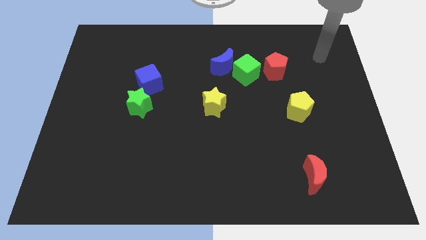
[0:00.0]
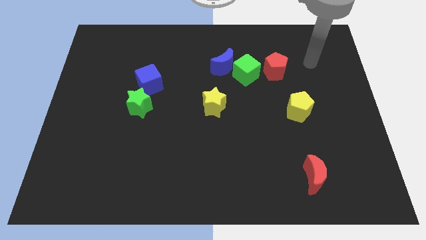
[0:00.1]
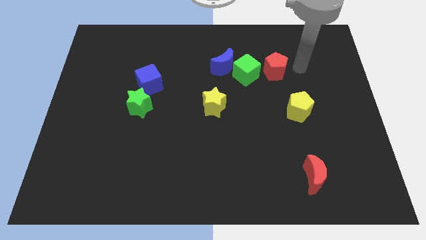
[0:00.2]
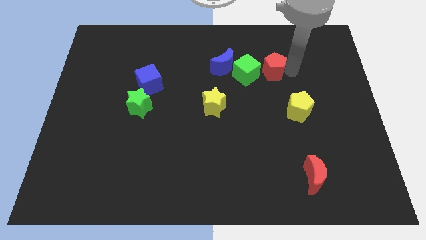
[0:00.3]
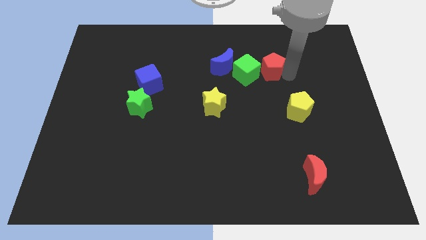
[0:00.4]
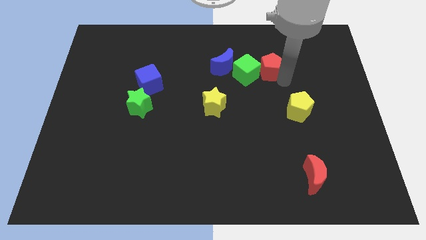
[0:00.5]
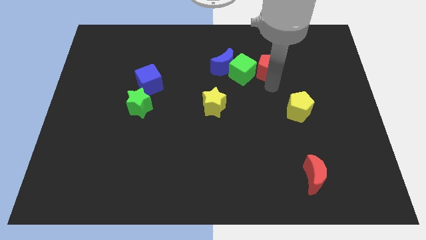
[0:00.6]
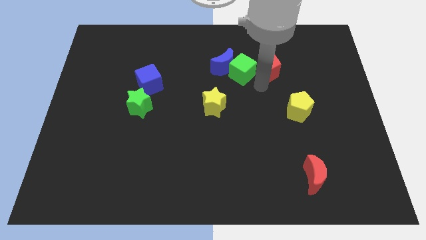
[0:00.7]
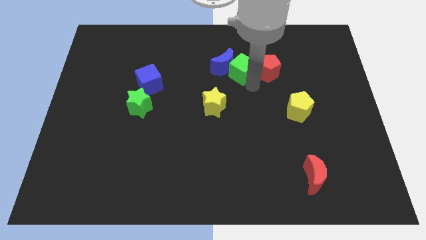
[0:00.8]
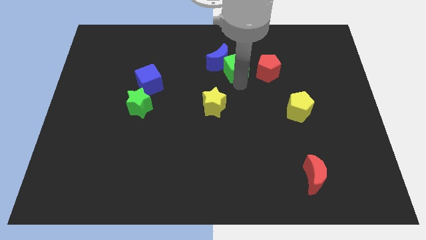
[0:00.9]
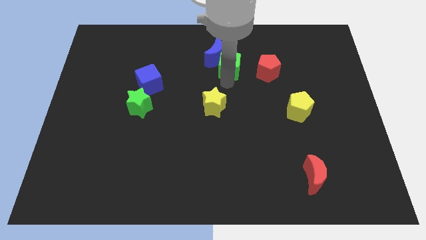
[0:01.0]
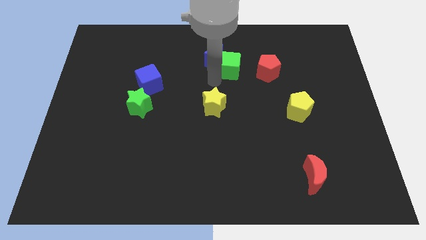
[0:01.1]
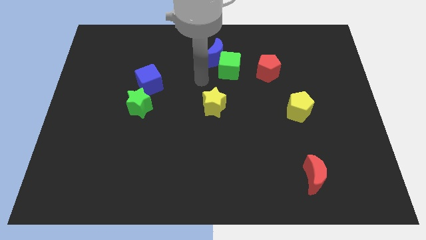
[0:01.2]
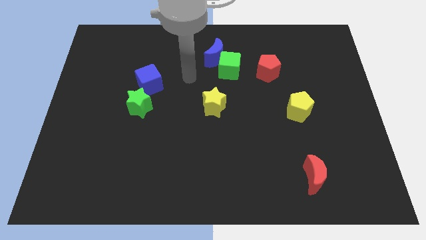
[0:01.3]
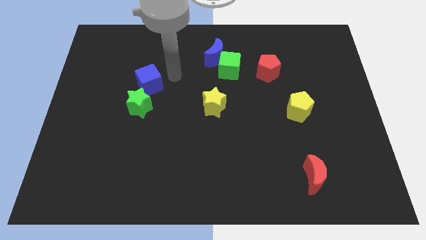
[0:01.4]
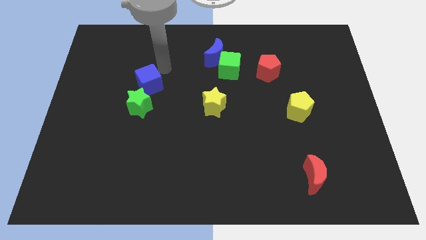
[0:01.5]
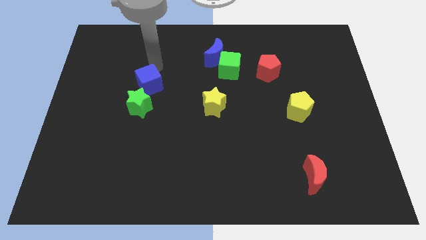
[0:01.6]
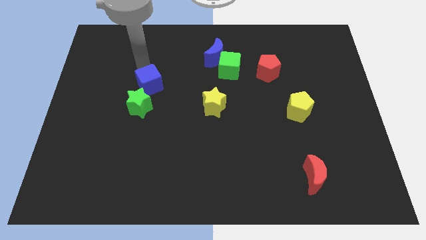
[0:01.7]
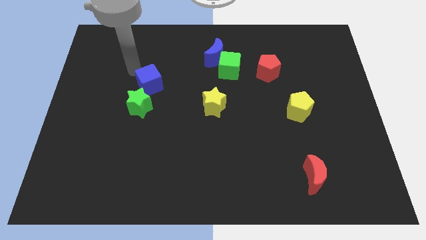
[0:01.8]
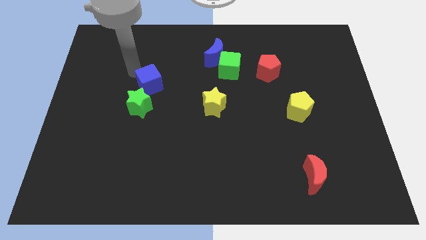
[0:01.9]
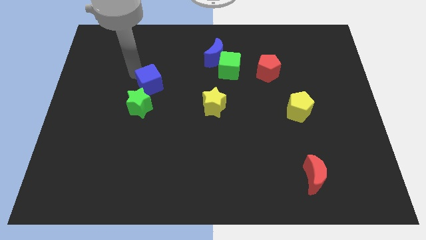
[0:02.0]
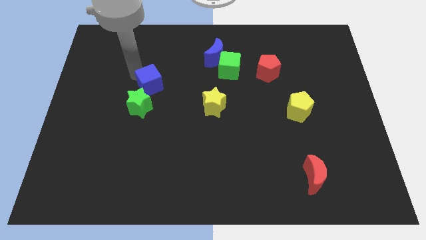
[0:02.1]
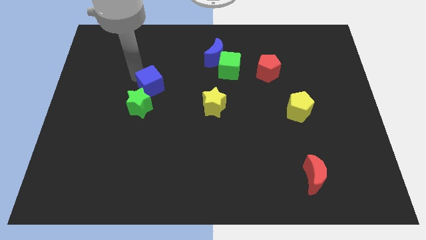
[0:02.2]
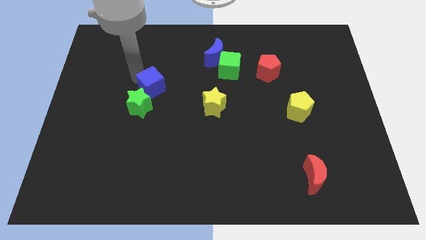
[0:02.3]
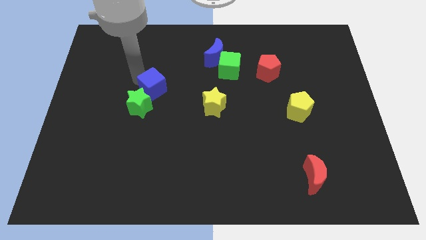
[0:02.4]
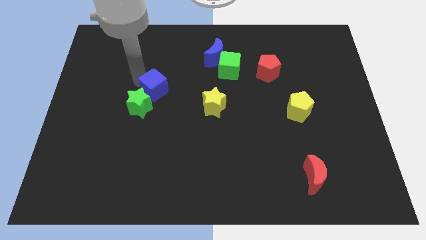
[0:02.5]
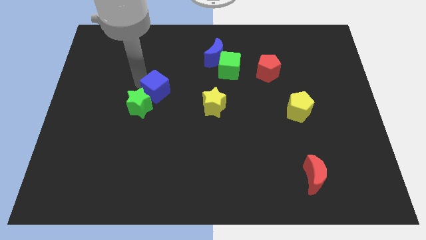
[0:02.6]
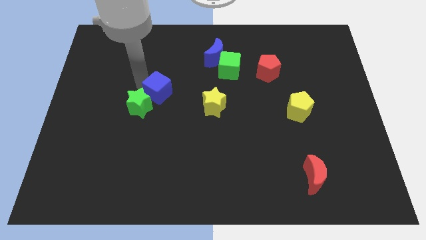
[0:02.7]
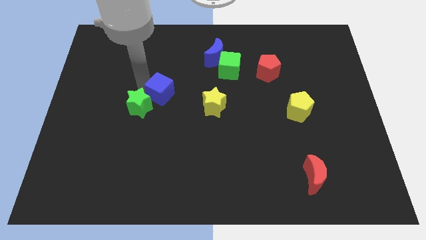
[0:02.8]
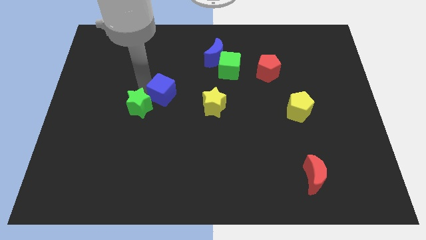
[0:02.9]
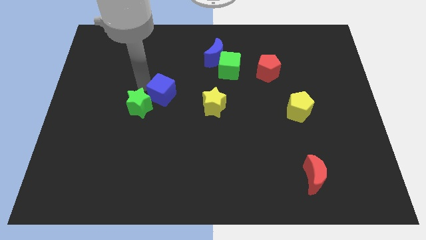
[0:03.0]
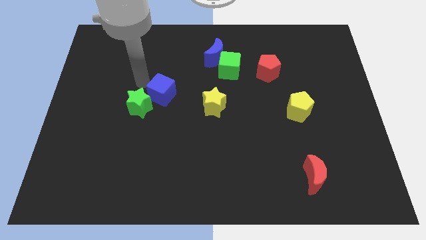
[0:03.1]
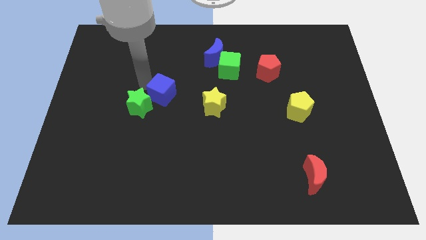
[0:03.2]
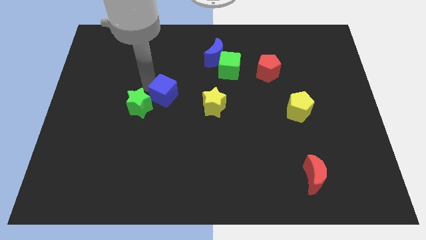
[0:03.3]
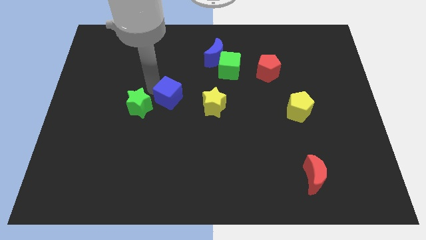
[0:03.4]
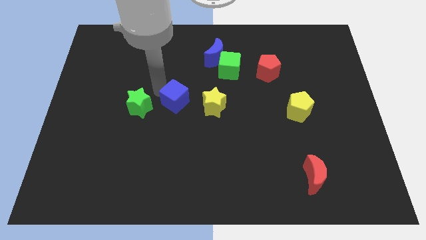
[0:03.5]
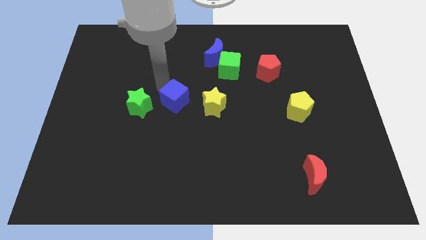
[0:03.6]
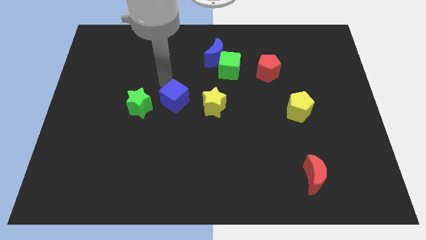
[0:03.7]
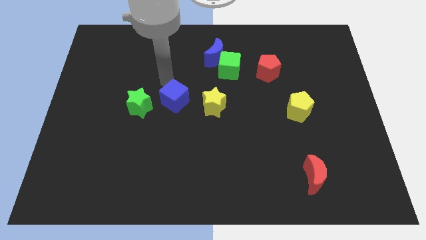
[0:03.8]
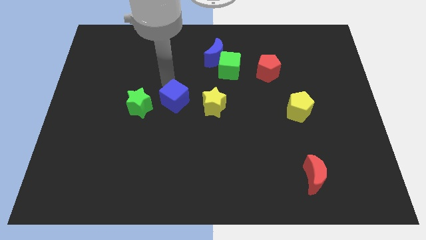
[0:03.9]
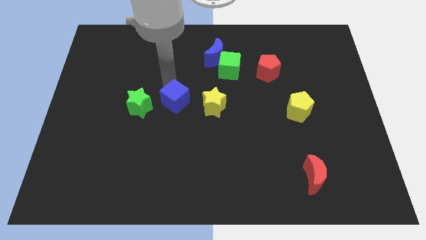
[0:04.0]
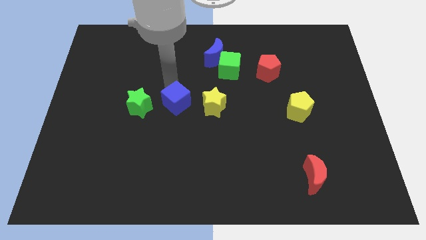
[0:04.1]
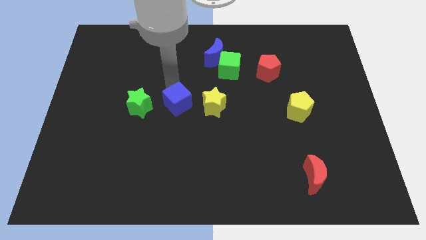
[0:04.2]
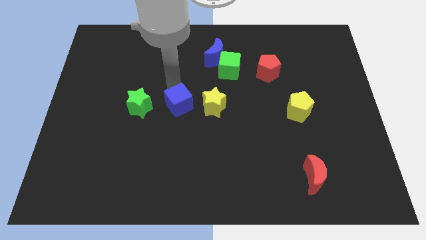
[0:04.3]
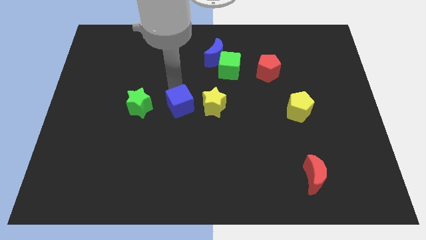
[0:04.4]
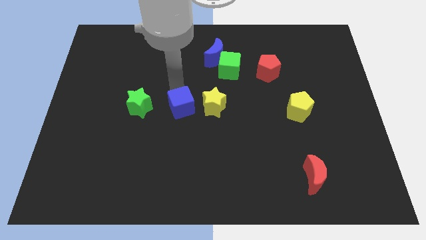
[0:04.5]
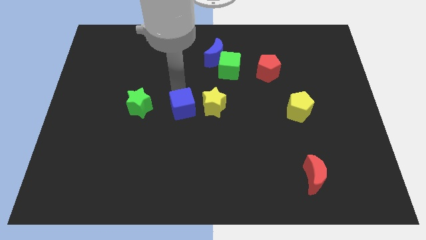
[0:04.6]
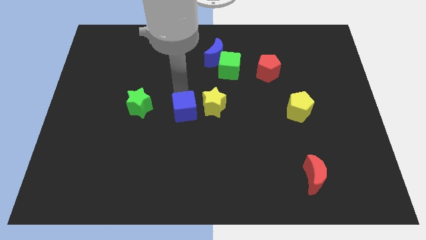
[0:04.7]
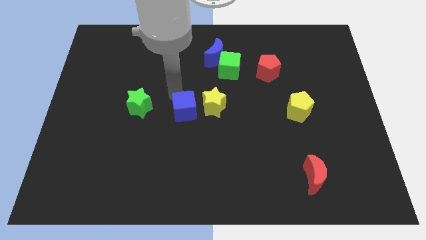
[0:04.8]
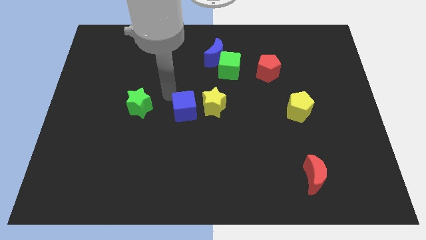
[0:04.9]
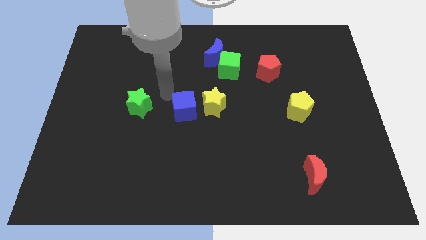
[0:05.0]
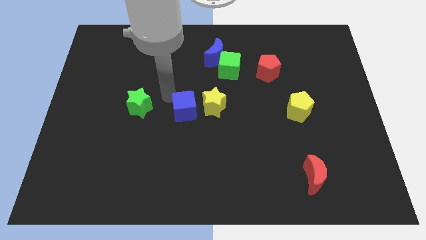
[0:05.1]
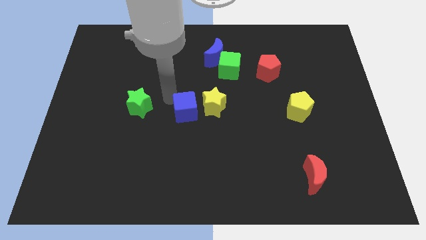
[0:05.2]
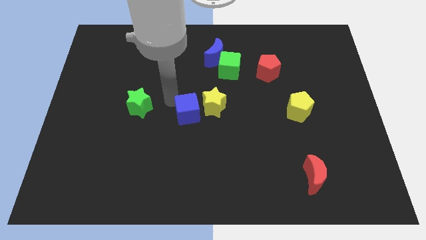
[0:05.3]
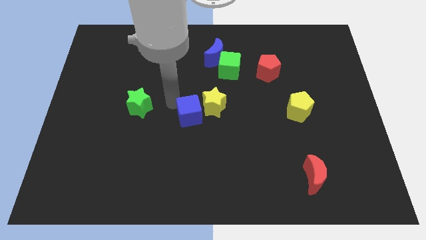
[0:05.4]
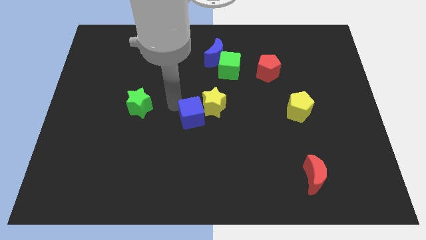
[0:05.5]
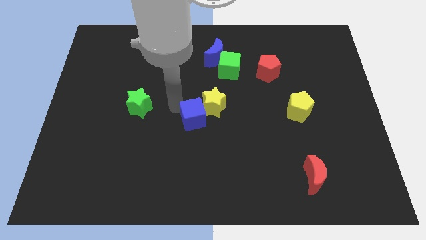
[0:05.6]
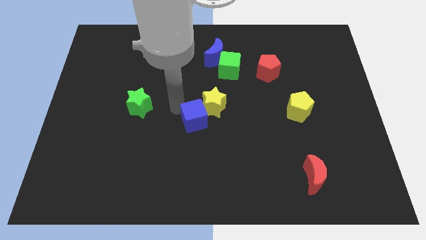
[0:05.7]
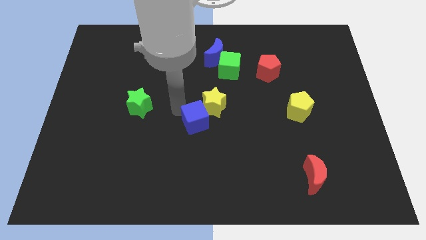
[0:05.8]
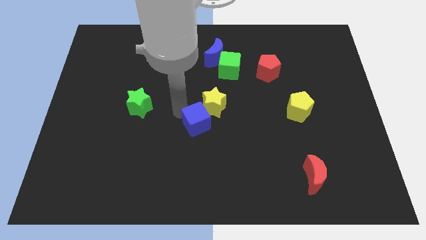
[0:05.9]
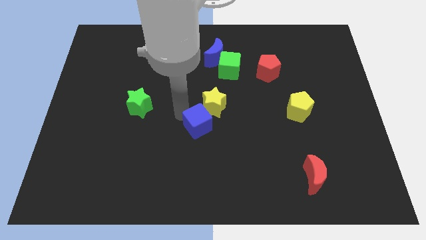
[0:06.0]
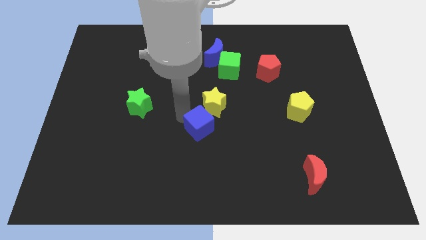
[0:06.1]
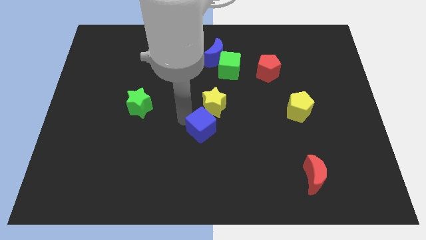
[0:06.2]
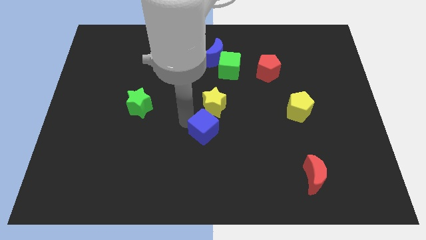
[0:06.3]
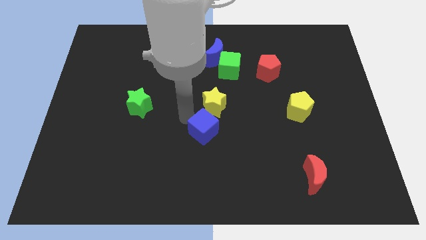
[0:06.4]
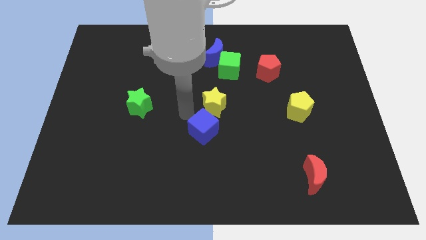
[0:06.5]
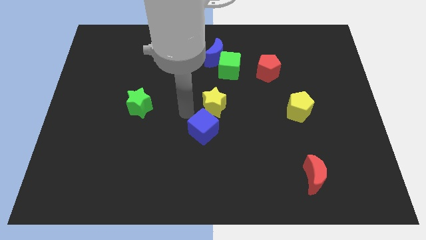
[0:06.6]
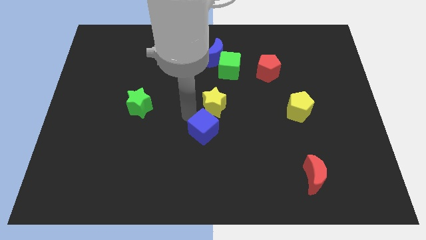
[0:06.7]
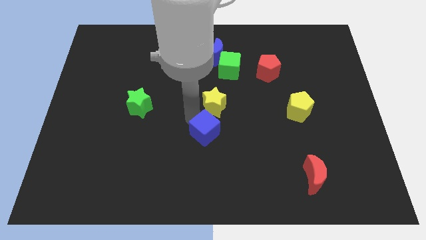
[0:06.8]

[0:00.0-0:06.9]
slide the blue cube diagonally downwards and right

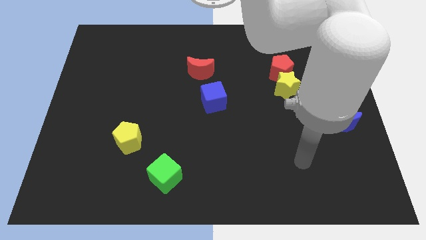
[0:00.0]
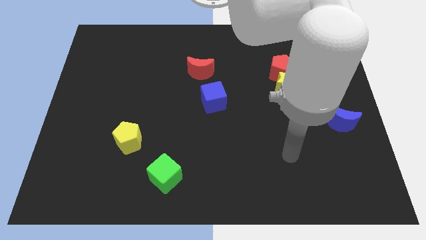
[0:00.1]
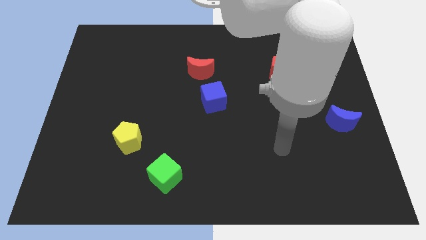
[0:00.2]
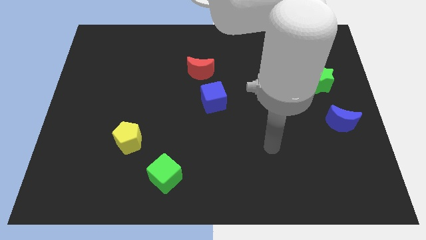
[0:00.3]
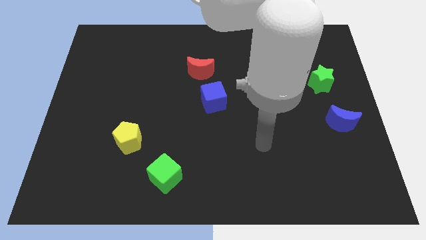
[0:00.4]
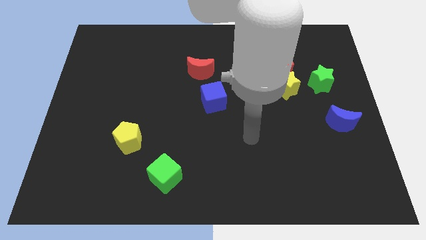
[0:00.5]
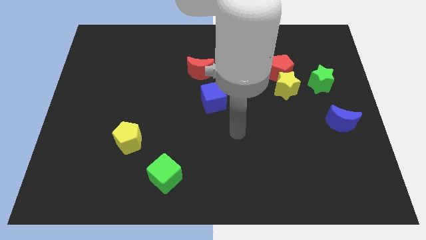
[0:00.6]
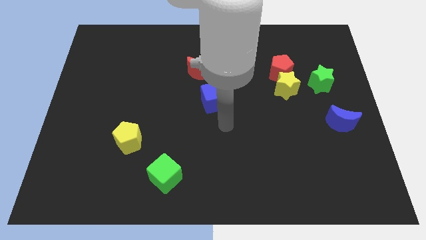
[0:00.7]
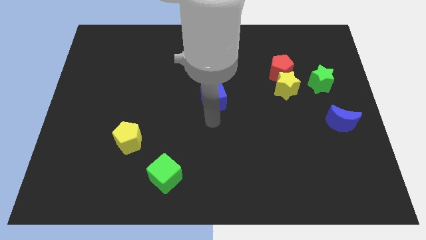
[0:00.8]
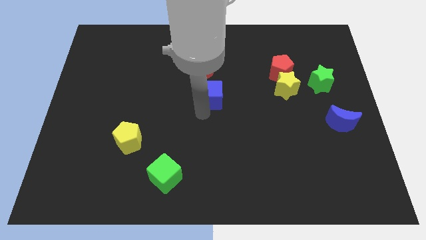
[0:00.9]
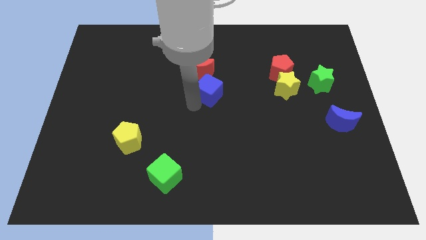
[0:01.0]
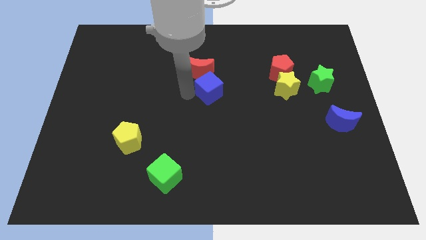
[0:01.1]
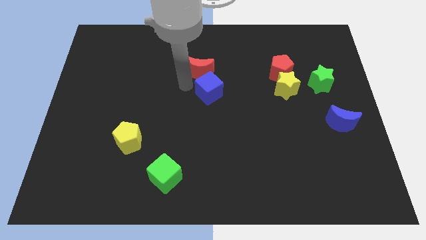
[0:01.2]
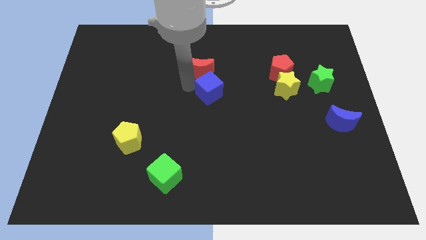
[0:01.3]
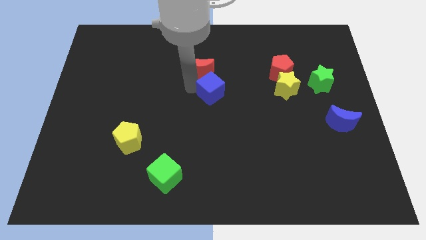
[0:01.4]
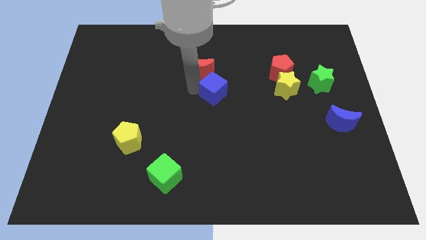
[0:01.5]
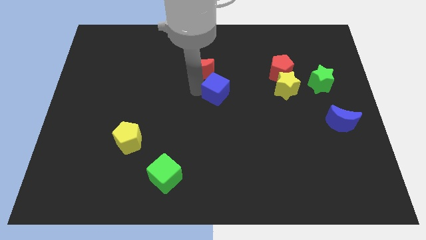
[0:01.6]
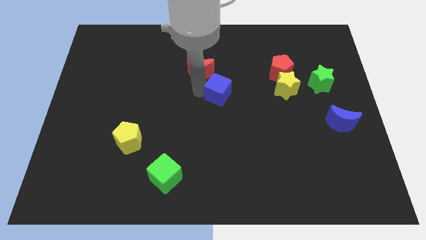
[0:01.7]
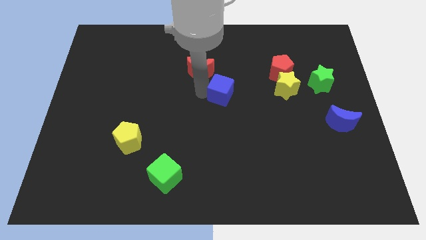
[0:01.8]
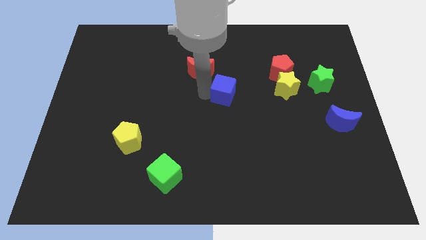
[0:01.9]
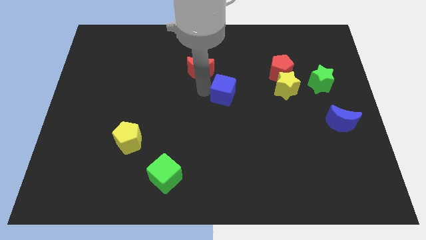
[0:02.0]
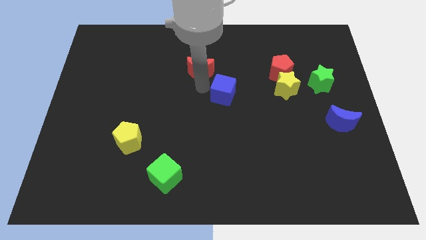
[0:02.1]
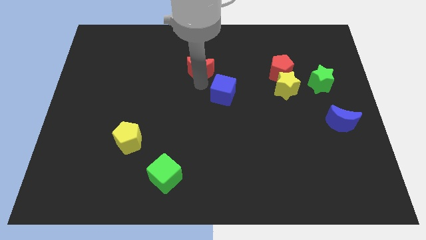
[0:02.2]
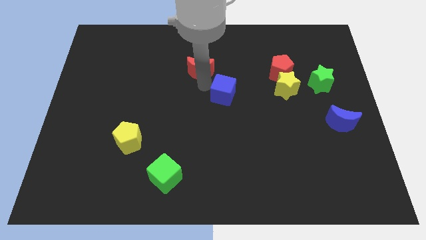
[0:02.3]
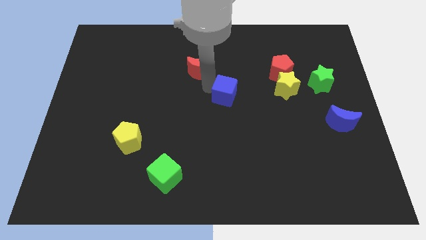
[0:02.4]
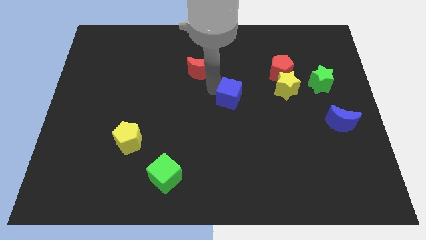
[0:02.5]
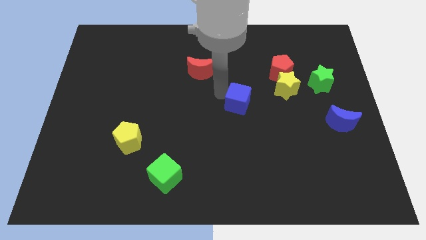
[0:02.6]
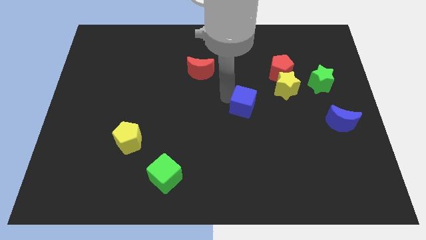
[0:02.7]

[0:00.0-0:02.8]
slightly push the blue cube to the right
